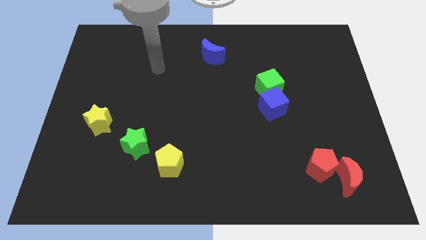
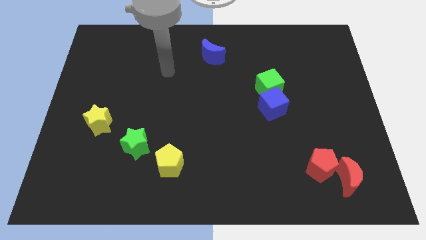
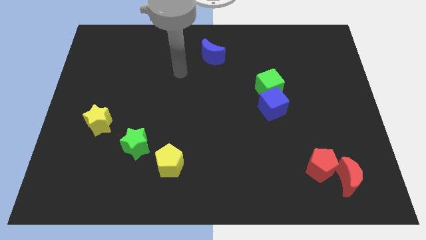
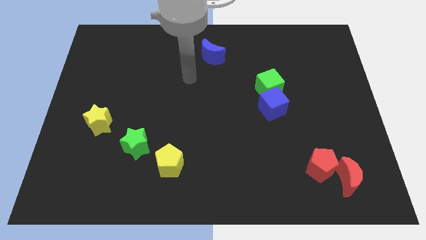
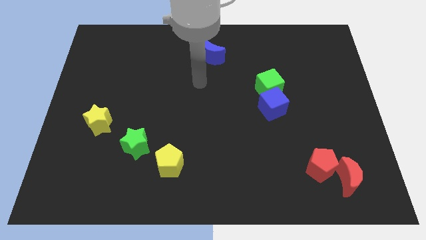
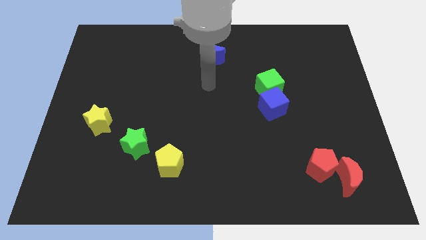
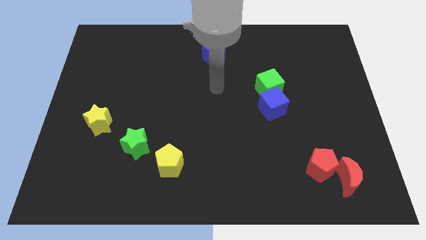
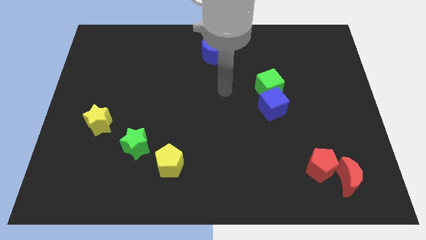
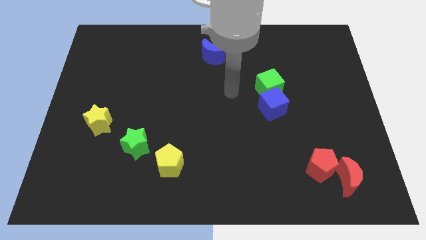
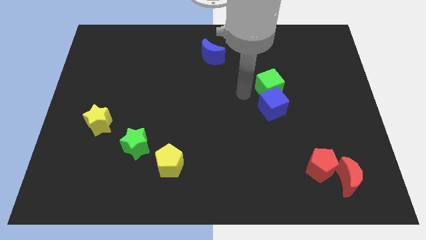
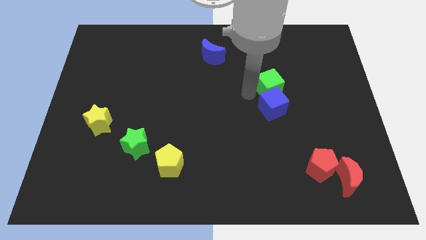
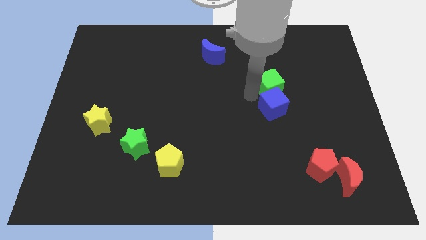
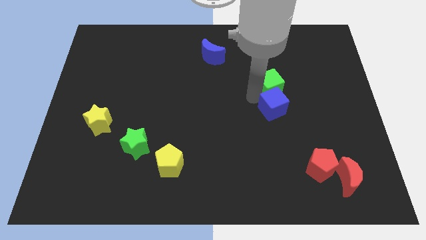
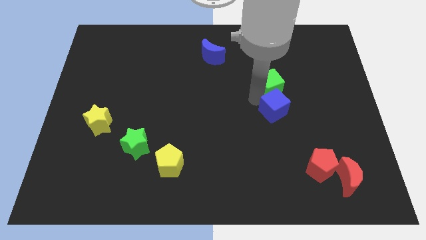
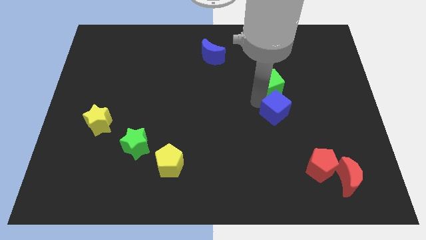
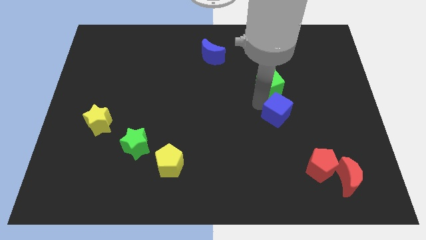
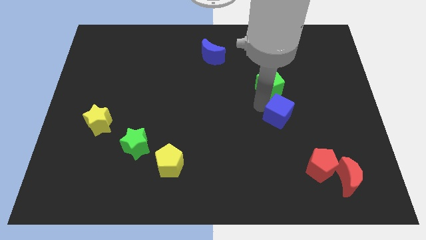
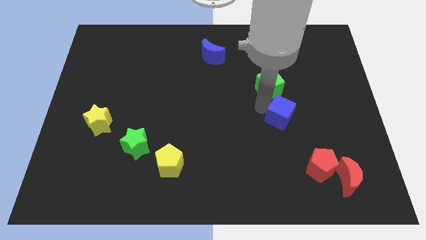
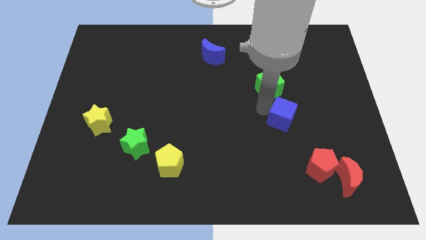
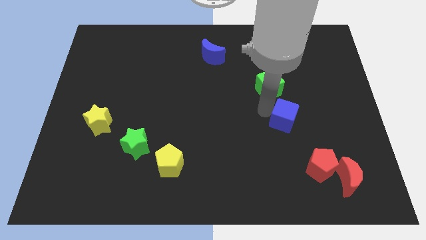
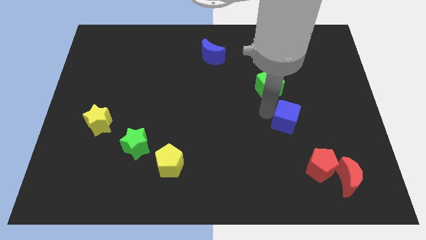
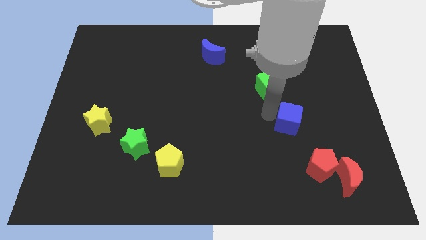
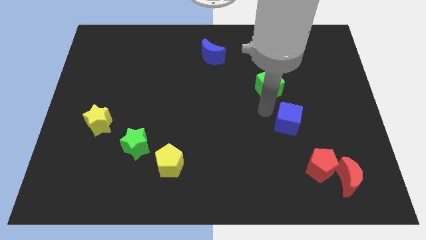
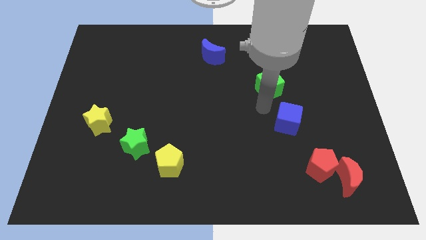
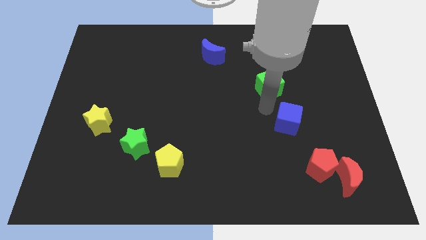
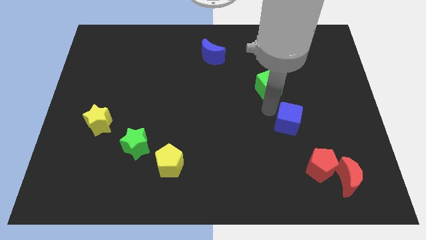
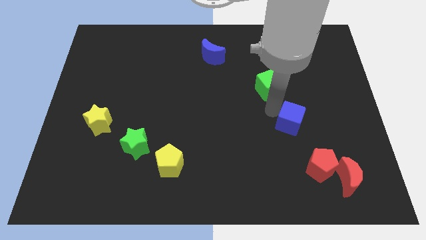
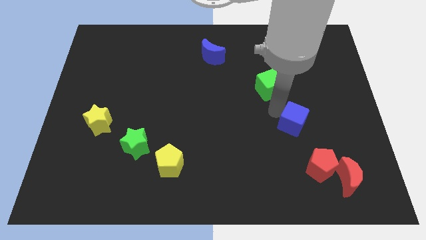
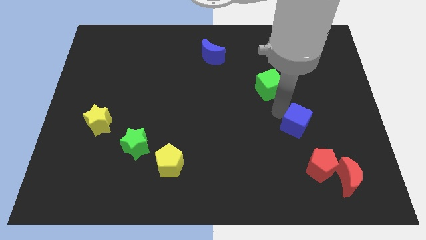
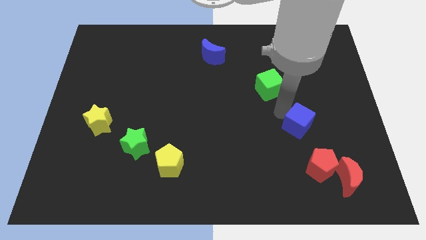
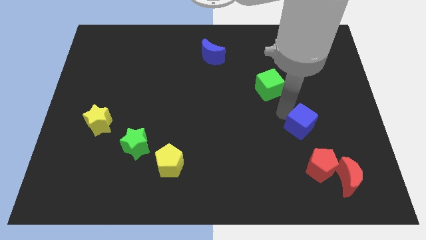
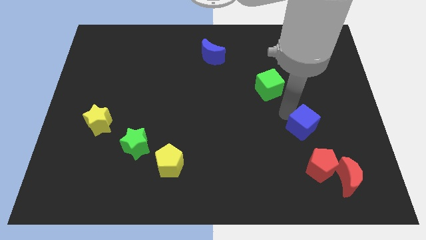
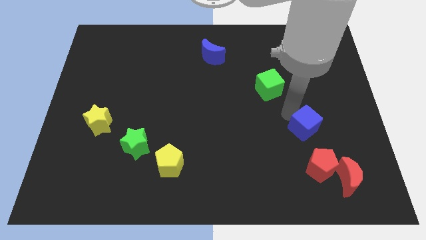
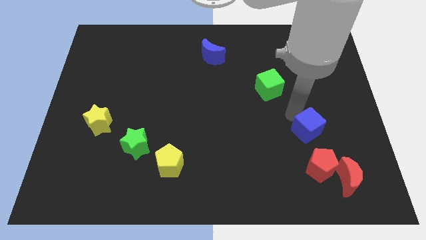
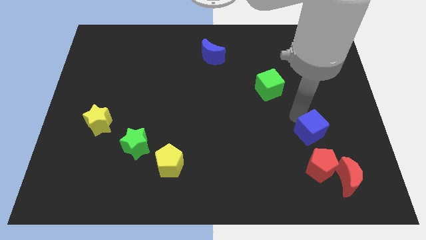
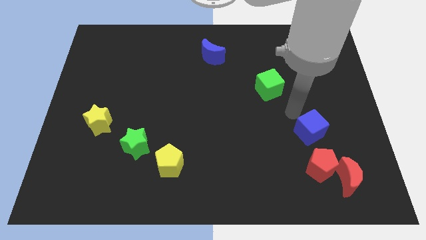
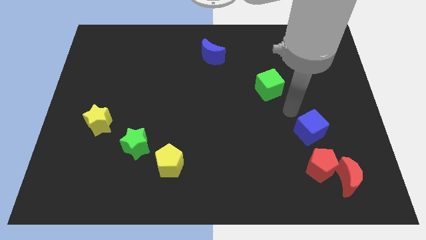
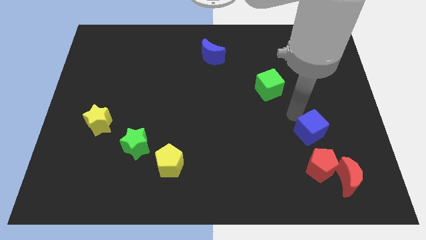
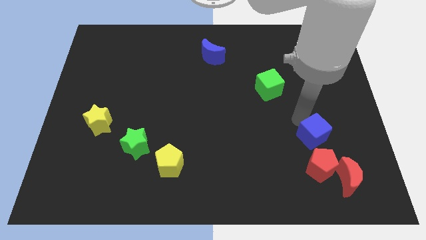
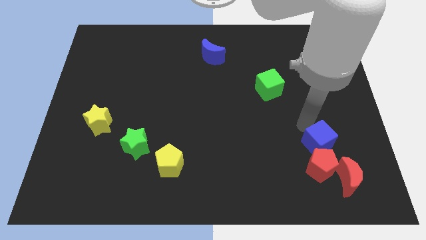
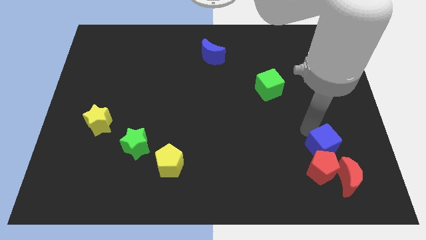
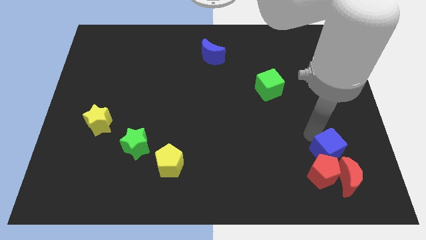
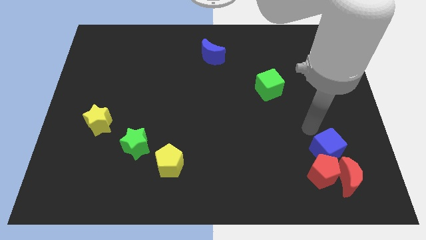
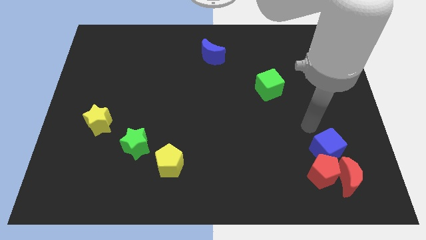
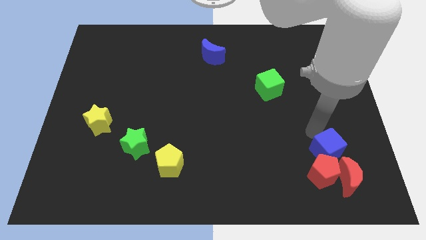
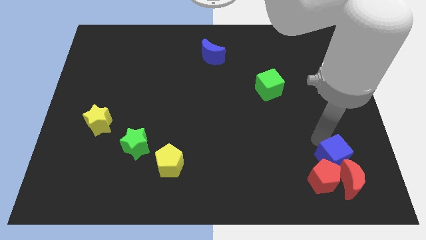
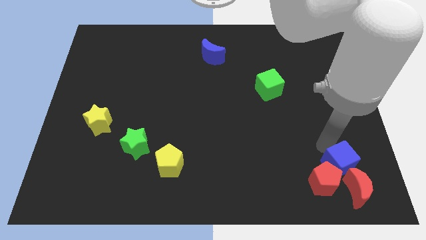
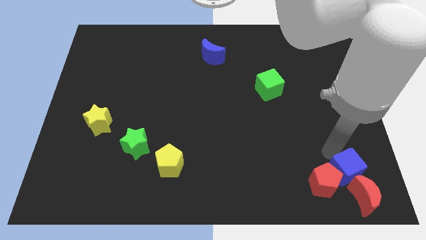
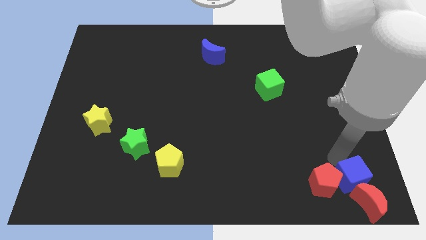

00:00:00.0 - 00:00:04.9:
slide the blue cube close to the red moon

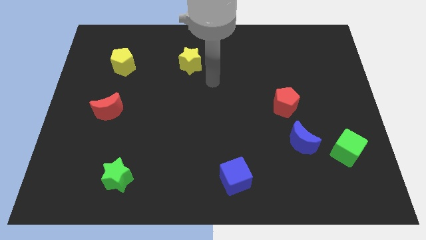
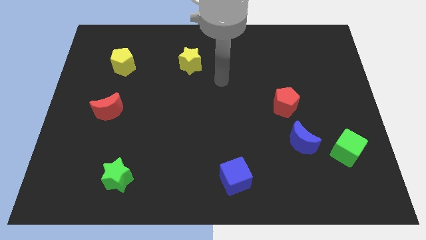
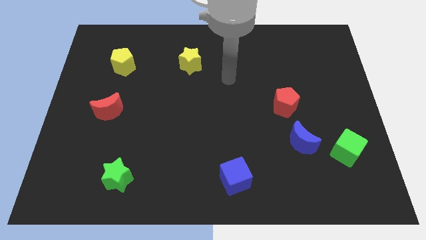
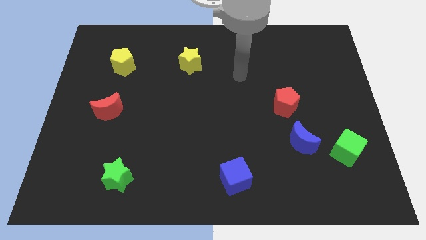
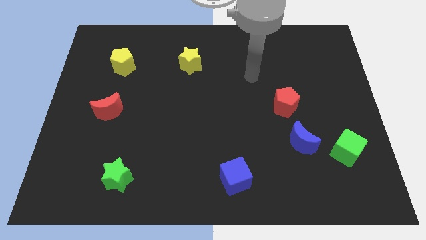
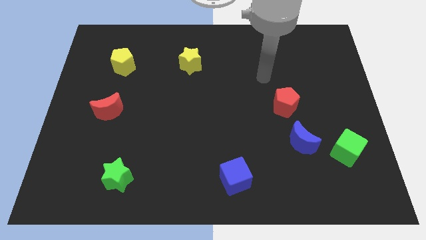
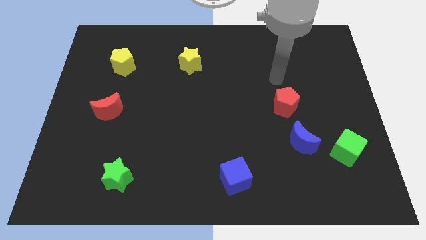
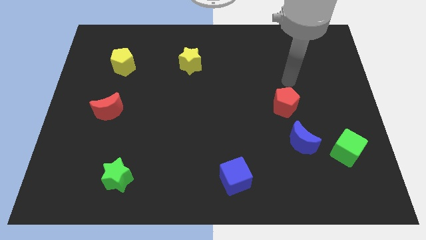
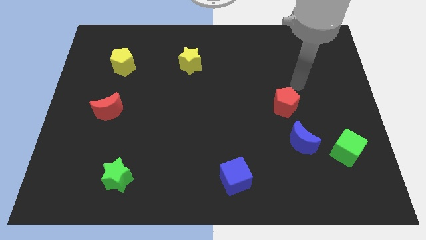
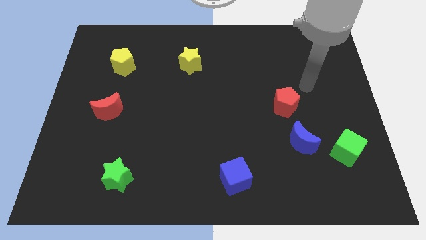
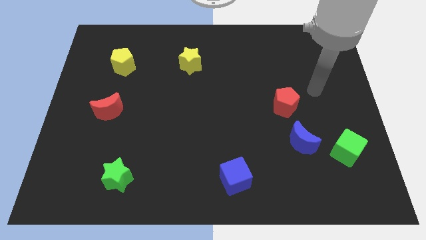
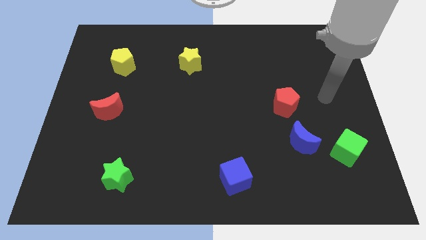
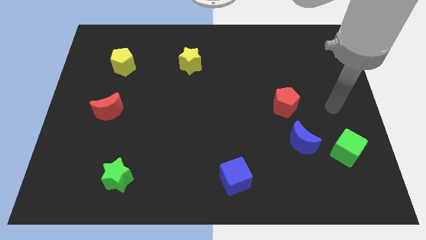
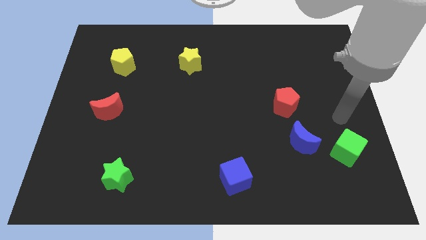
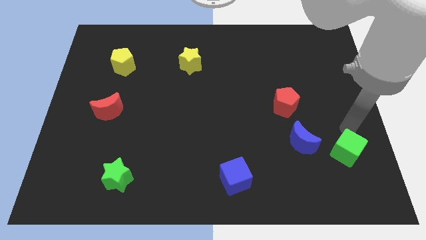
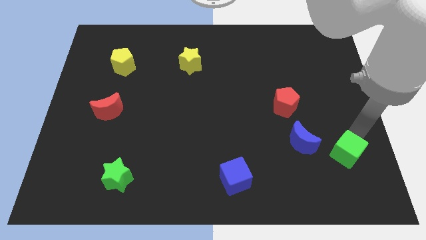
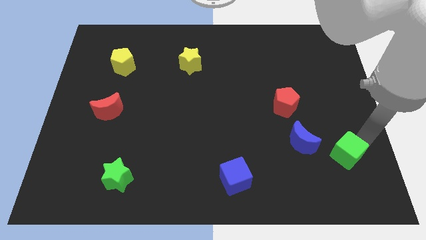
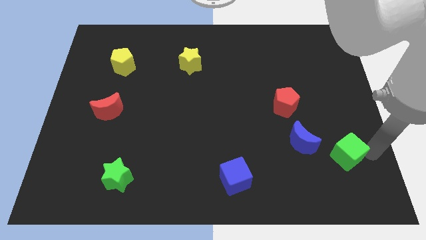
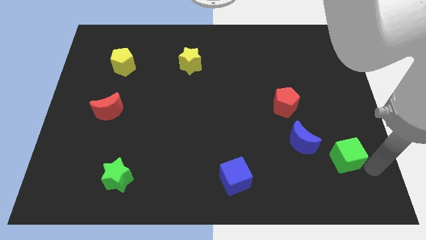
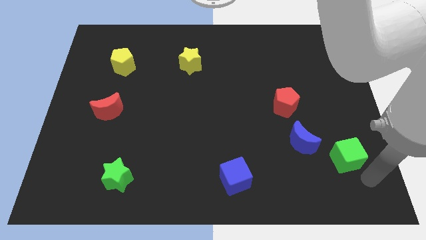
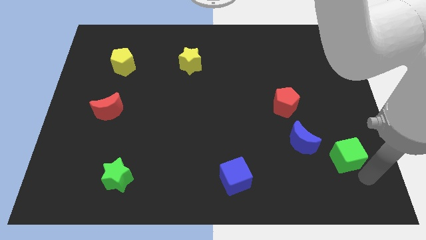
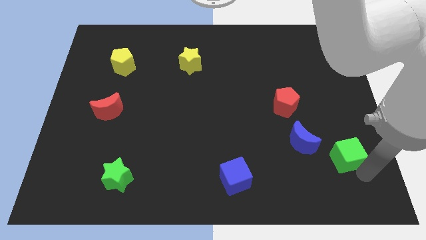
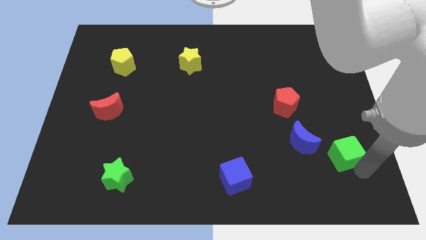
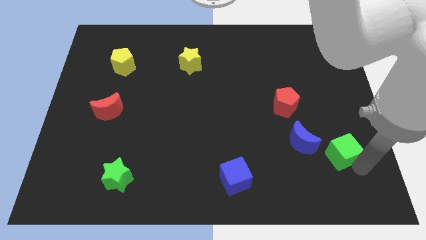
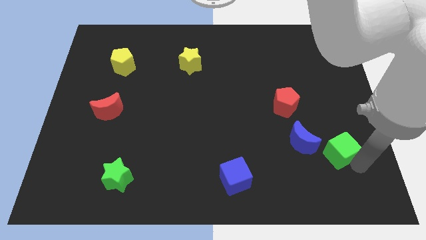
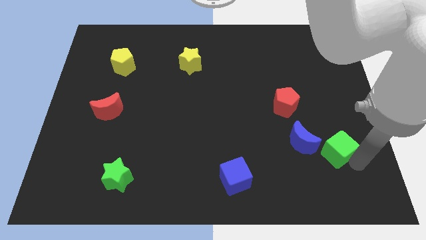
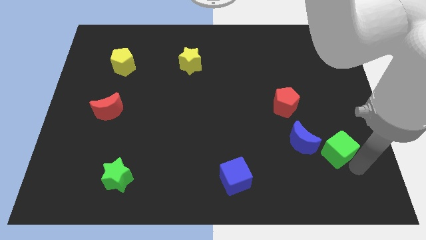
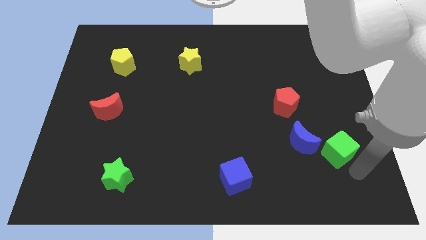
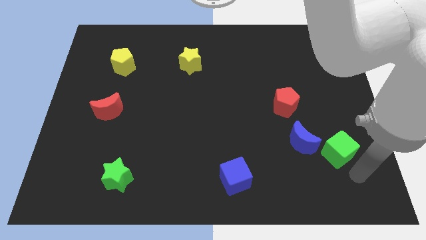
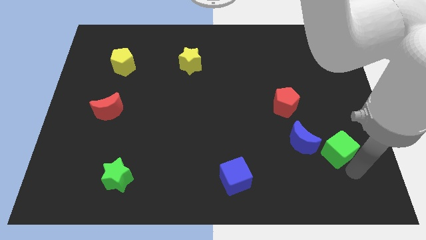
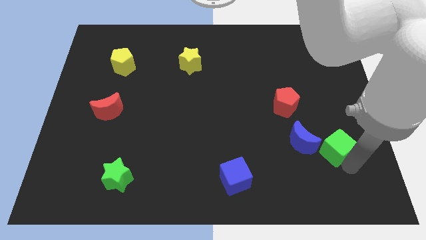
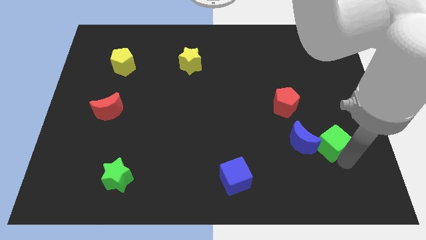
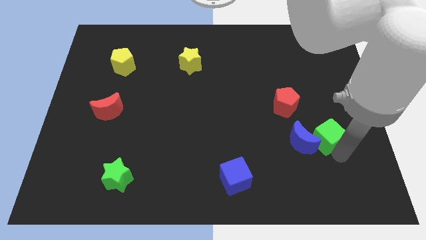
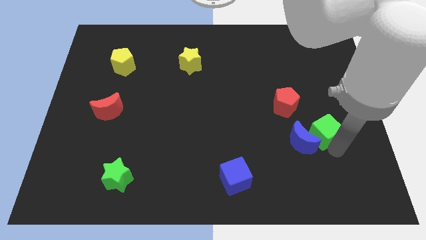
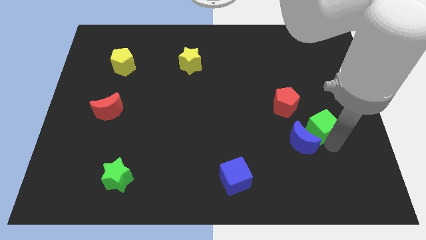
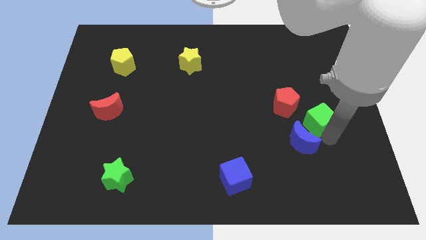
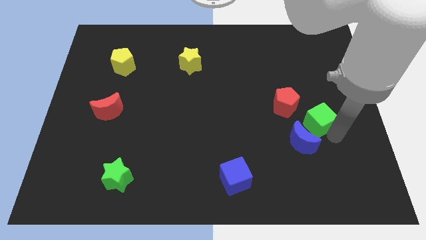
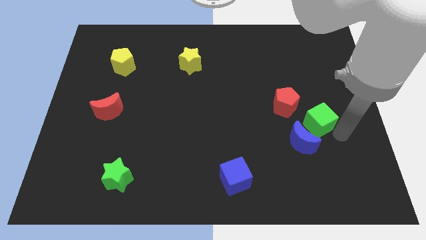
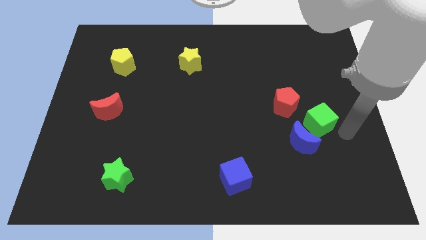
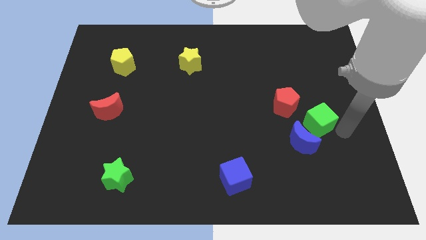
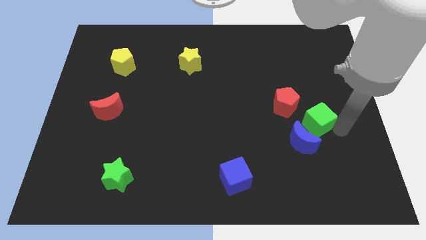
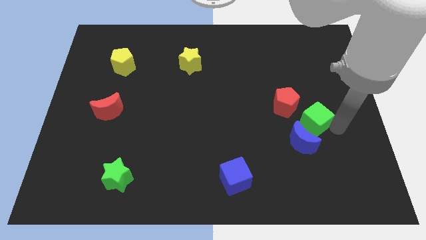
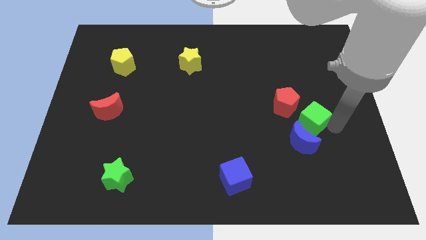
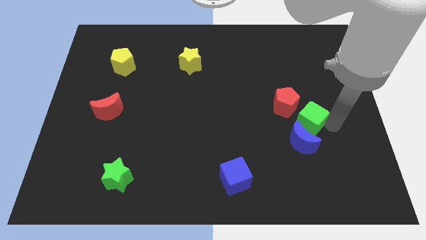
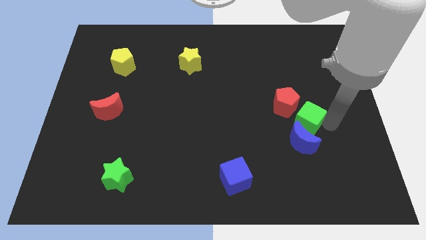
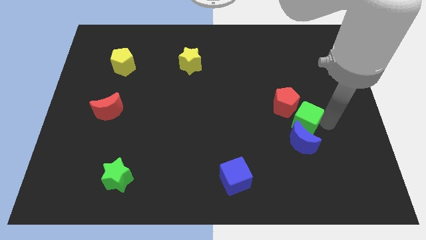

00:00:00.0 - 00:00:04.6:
slide the green cube close to the red pentagon
